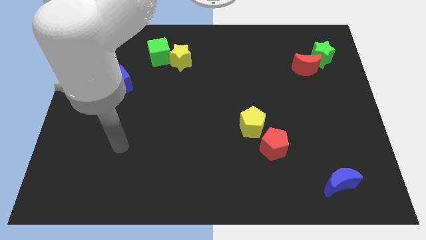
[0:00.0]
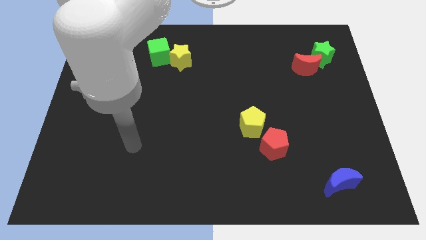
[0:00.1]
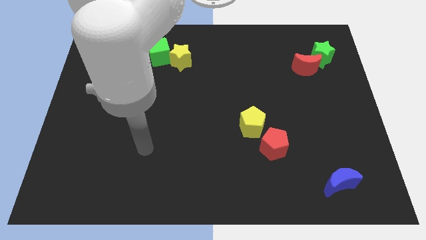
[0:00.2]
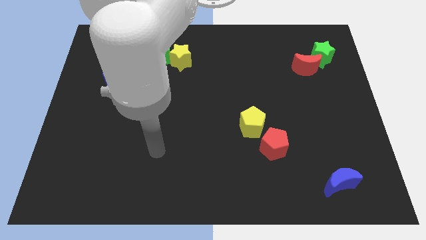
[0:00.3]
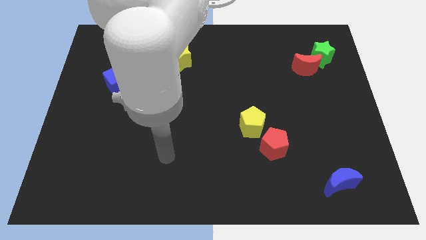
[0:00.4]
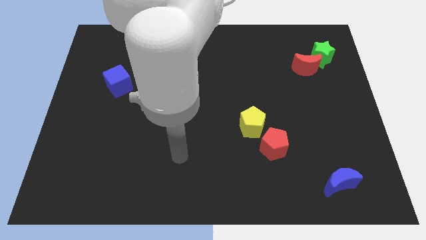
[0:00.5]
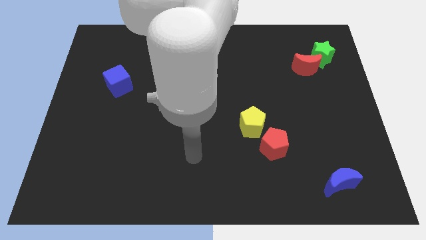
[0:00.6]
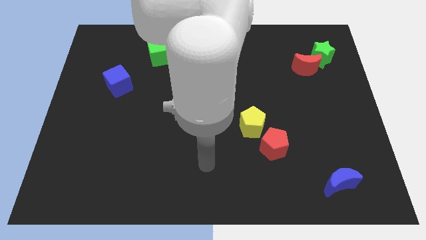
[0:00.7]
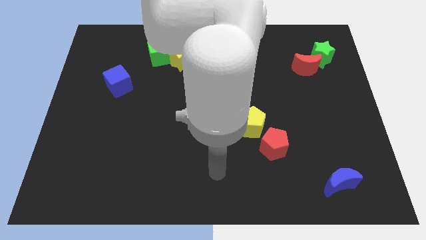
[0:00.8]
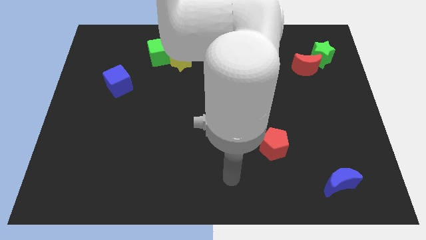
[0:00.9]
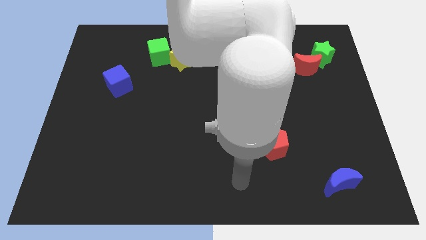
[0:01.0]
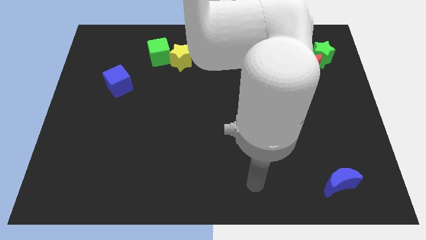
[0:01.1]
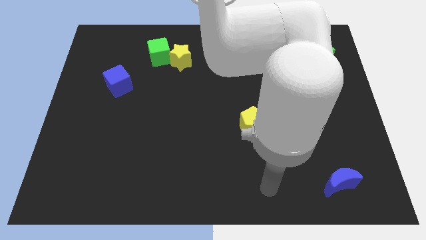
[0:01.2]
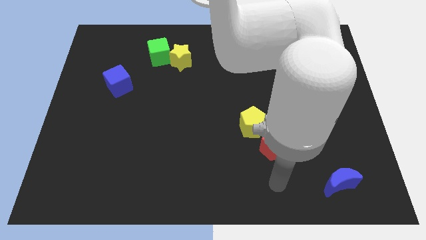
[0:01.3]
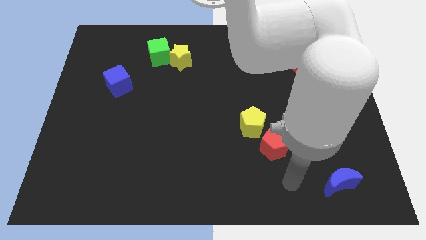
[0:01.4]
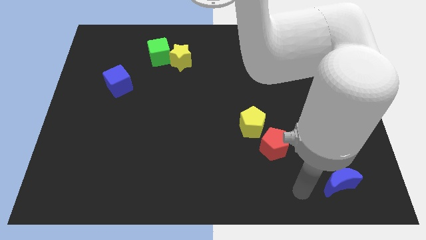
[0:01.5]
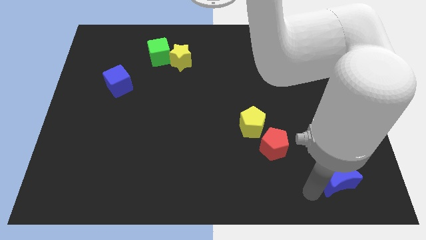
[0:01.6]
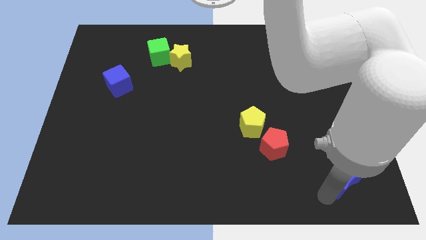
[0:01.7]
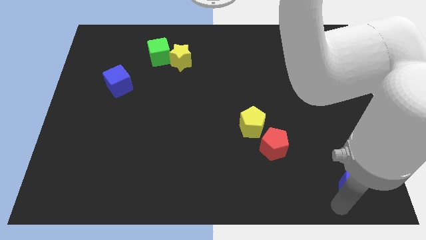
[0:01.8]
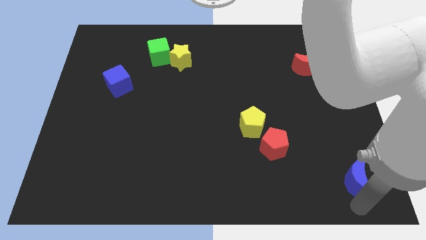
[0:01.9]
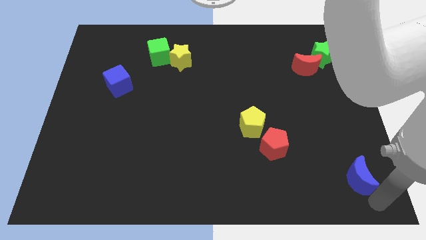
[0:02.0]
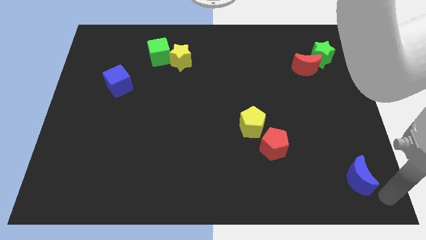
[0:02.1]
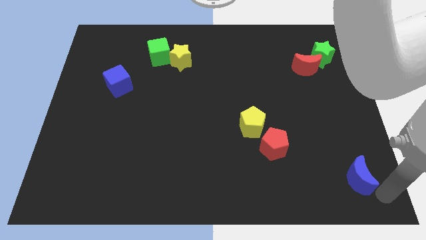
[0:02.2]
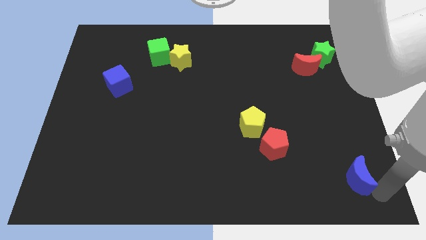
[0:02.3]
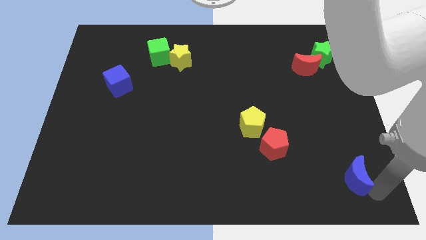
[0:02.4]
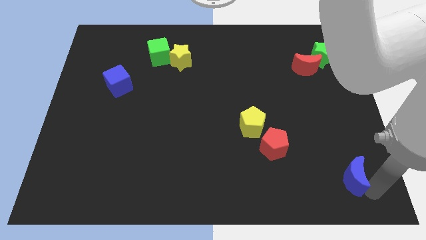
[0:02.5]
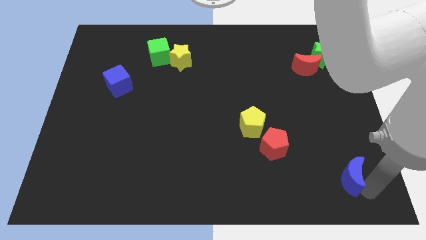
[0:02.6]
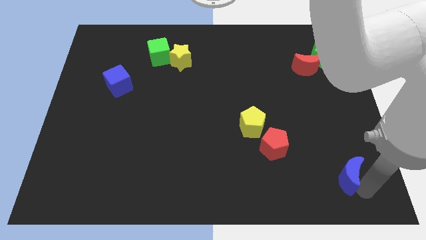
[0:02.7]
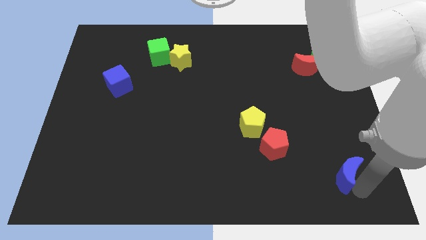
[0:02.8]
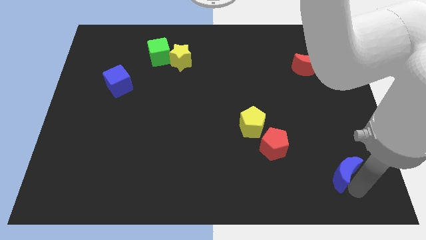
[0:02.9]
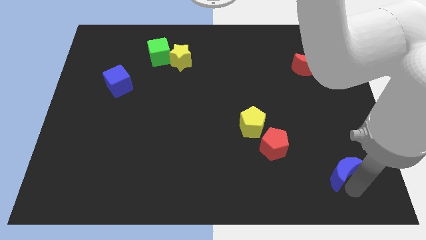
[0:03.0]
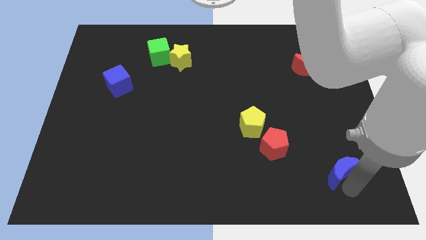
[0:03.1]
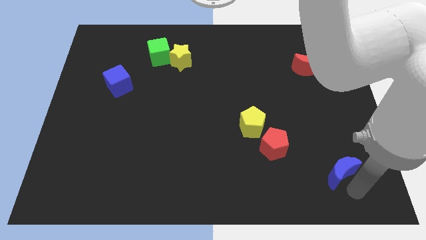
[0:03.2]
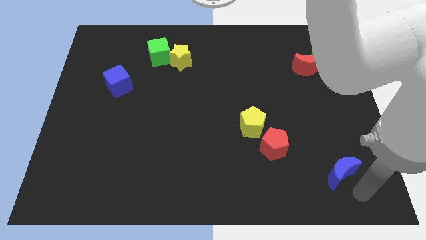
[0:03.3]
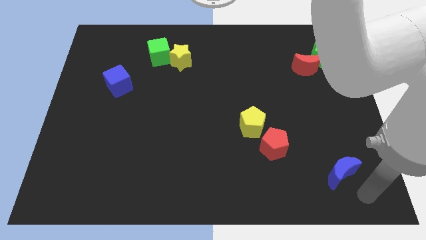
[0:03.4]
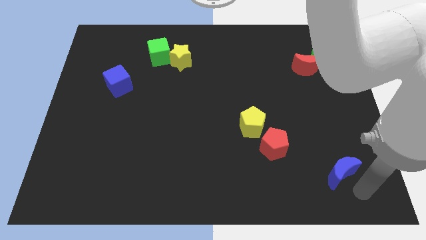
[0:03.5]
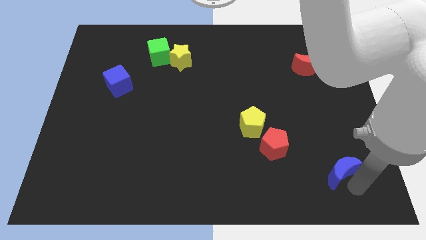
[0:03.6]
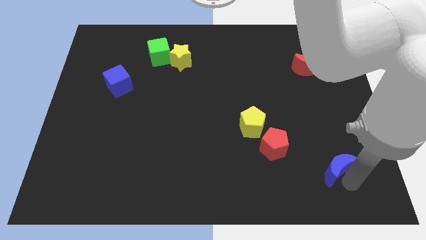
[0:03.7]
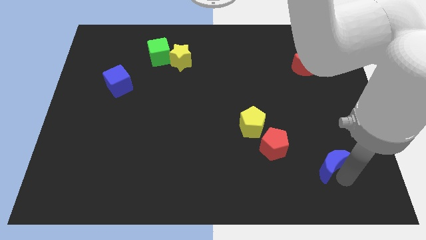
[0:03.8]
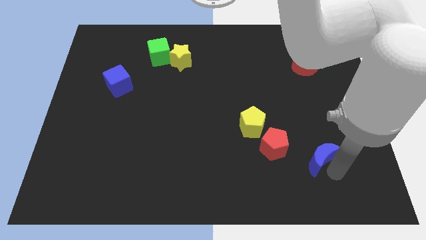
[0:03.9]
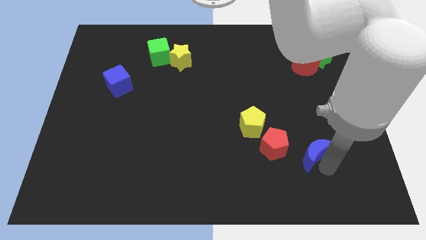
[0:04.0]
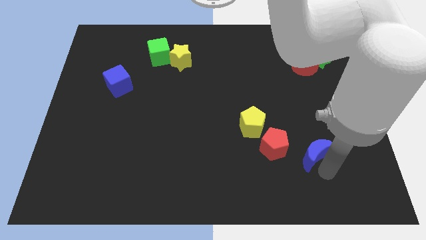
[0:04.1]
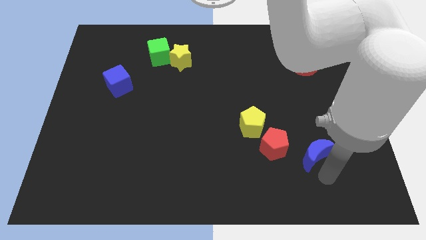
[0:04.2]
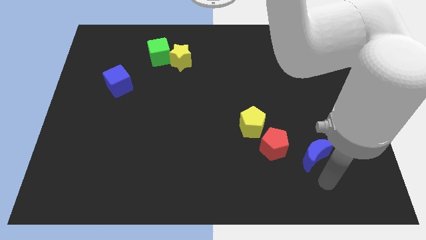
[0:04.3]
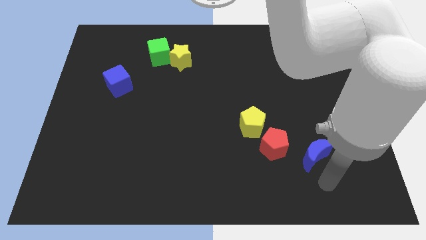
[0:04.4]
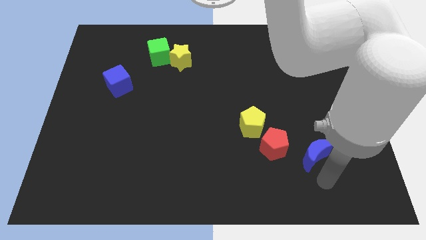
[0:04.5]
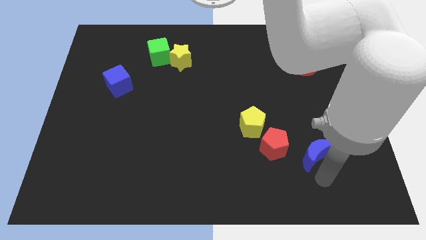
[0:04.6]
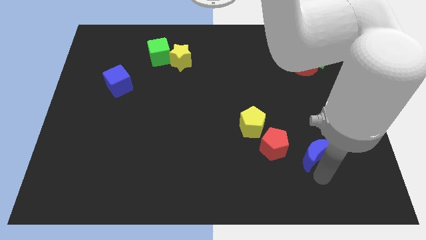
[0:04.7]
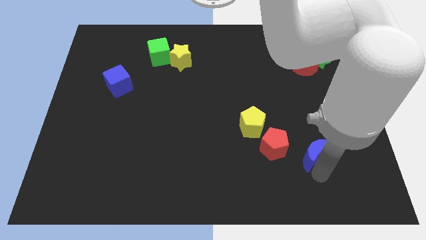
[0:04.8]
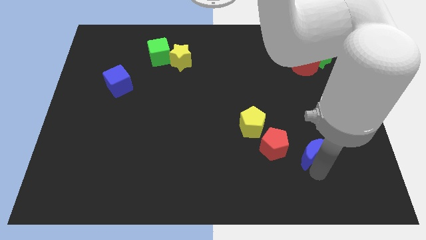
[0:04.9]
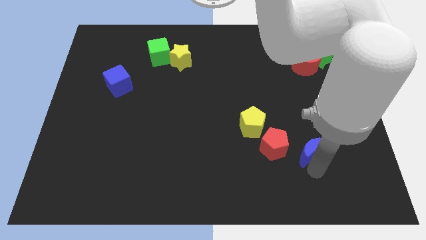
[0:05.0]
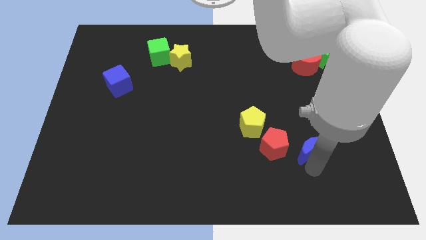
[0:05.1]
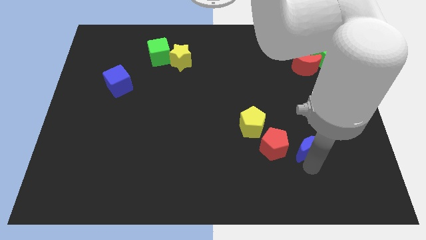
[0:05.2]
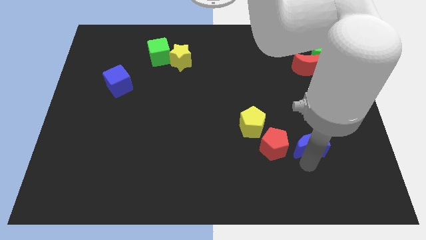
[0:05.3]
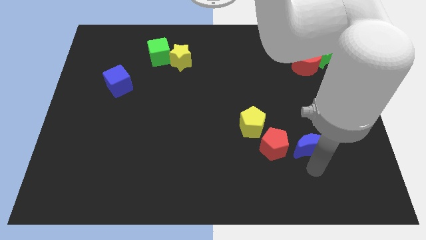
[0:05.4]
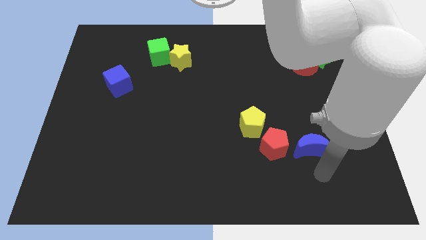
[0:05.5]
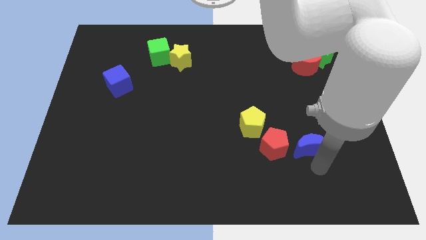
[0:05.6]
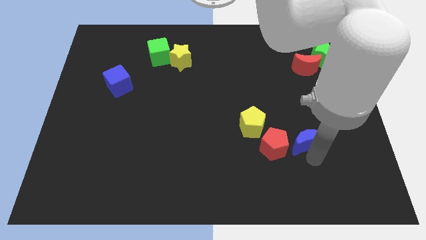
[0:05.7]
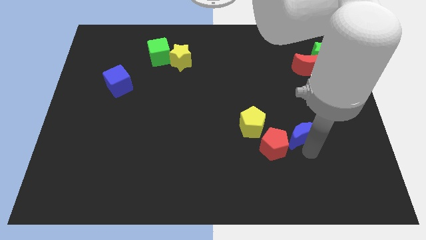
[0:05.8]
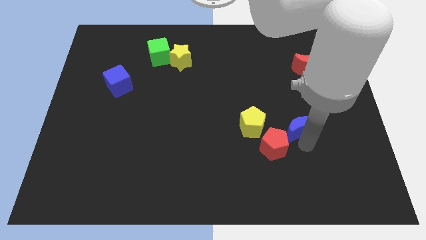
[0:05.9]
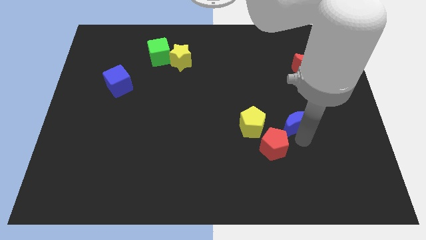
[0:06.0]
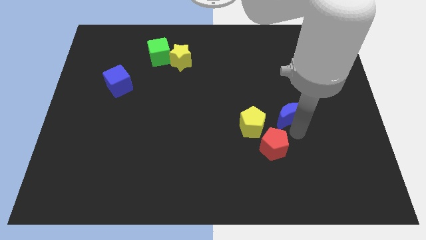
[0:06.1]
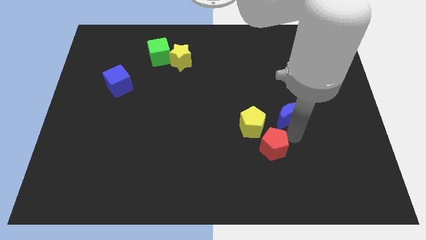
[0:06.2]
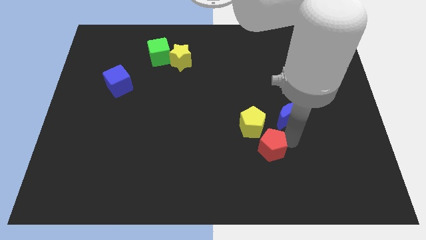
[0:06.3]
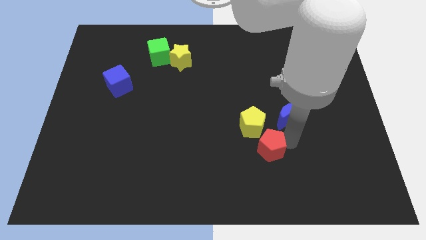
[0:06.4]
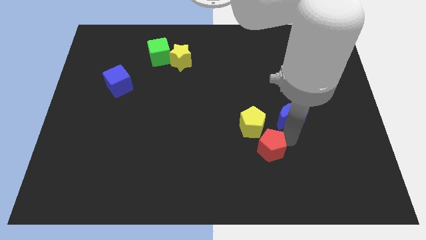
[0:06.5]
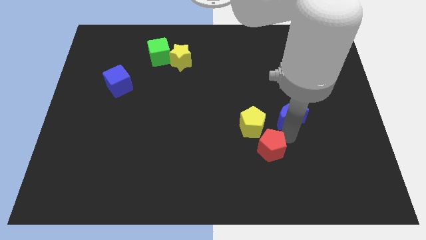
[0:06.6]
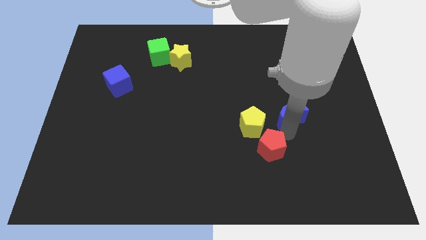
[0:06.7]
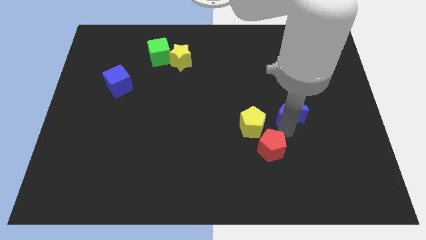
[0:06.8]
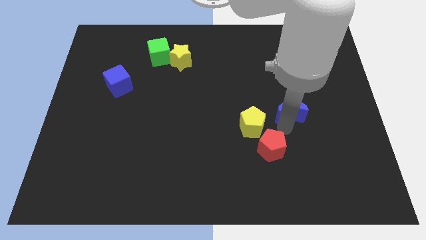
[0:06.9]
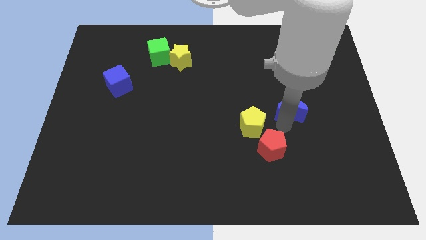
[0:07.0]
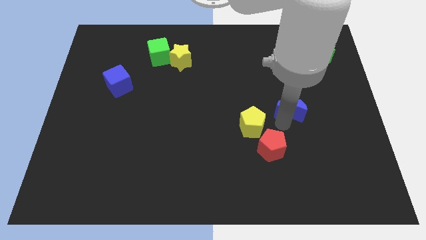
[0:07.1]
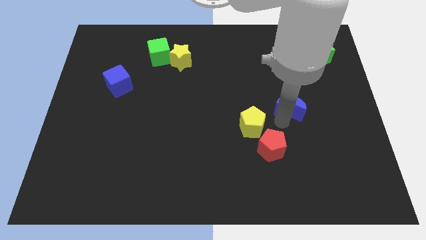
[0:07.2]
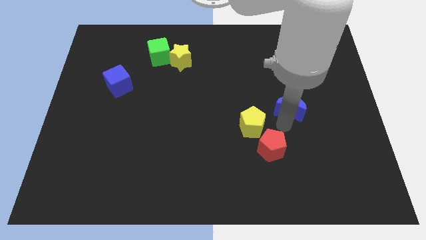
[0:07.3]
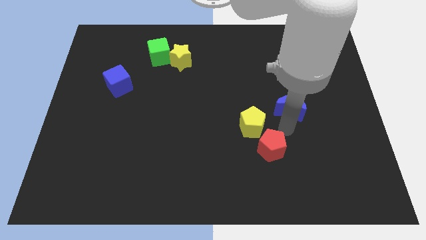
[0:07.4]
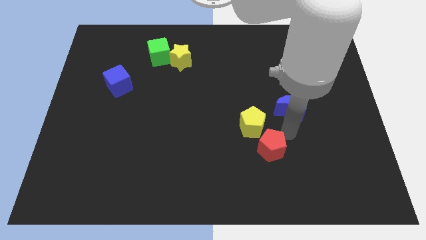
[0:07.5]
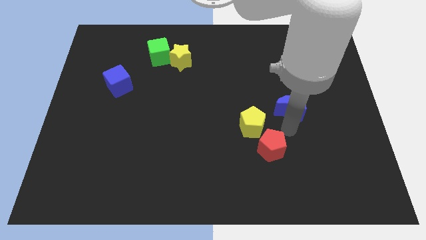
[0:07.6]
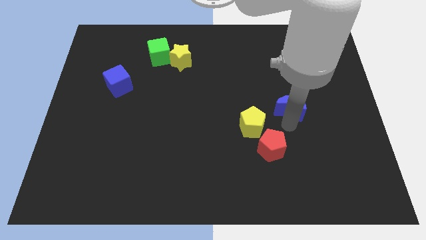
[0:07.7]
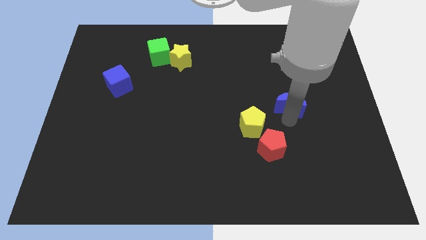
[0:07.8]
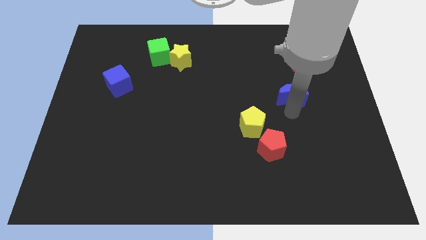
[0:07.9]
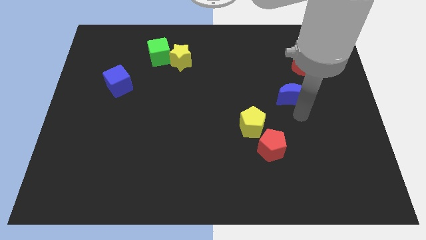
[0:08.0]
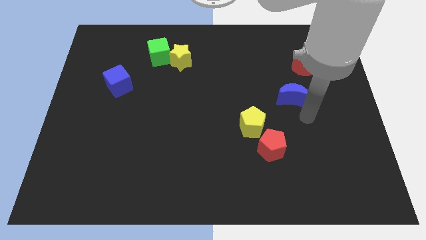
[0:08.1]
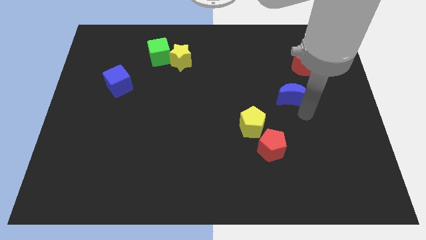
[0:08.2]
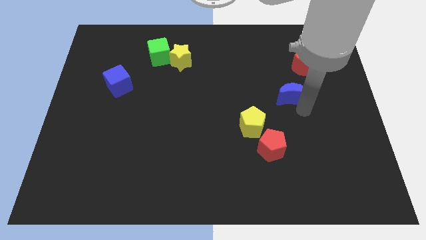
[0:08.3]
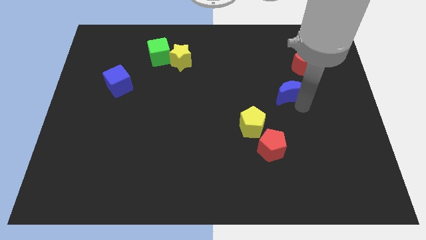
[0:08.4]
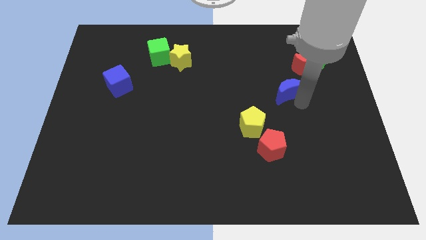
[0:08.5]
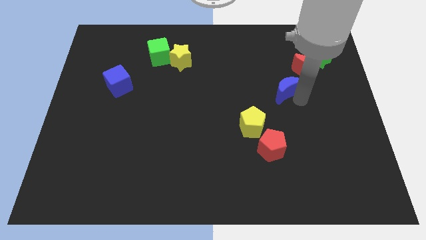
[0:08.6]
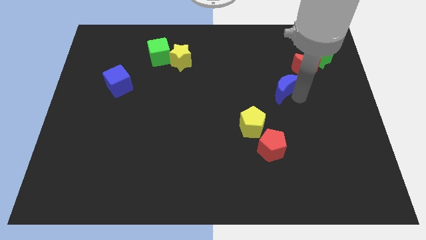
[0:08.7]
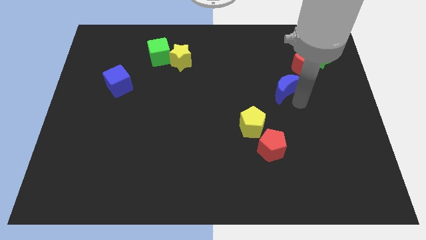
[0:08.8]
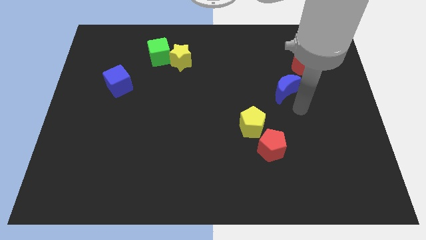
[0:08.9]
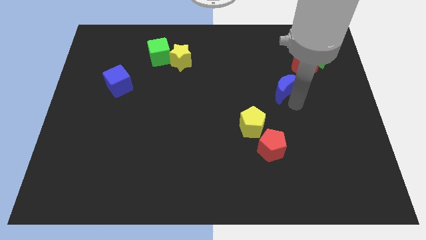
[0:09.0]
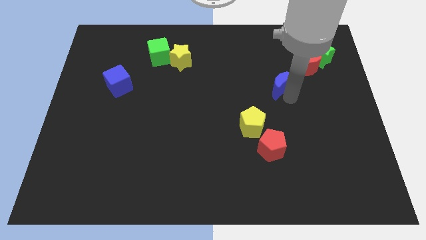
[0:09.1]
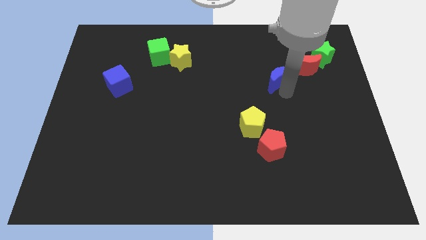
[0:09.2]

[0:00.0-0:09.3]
move the blue moon just left of the red moon
